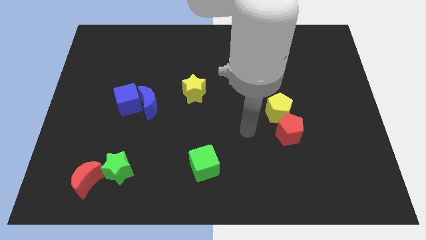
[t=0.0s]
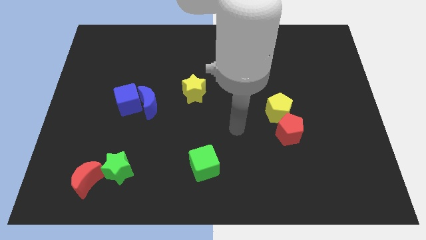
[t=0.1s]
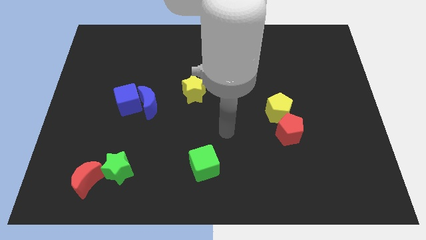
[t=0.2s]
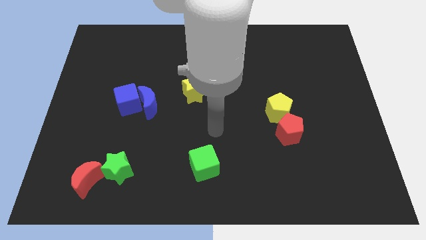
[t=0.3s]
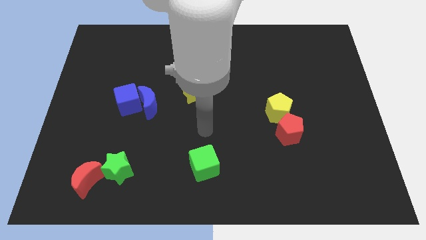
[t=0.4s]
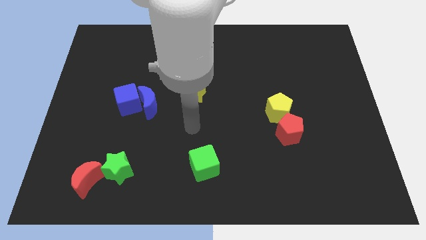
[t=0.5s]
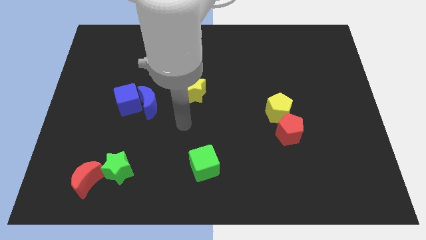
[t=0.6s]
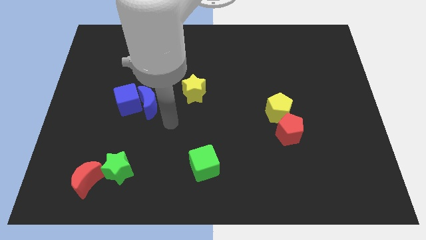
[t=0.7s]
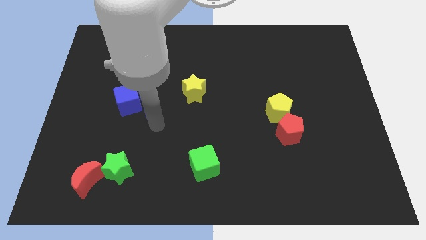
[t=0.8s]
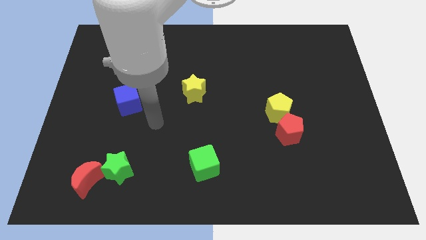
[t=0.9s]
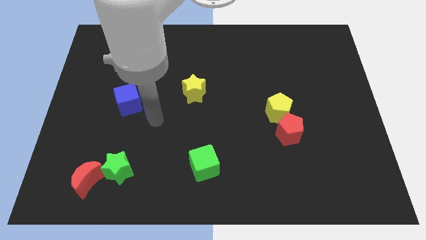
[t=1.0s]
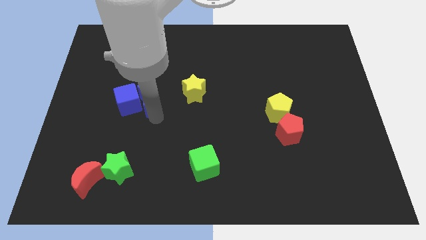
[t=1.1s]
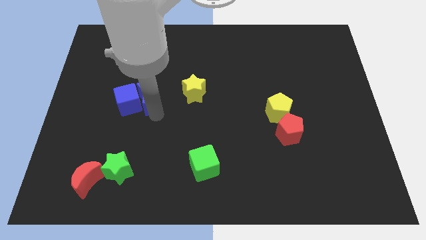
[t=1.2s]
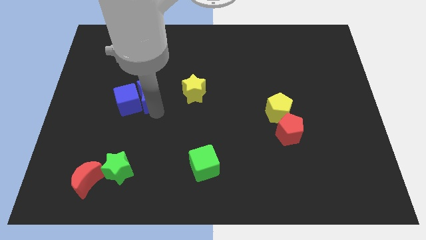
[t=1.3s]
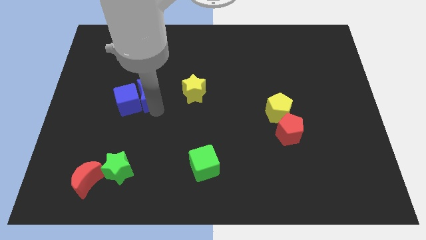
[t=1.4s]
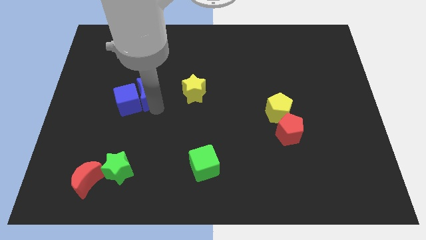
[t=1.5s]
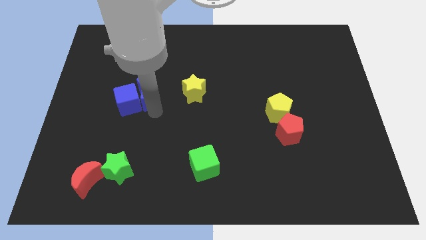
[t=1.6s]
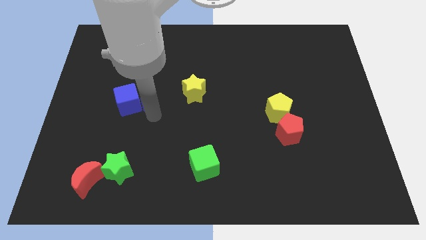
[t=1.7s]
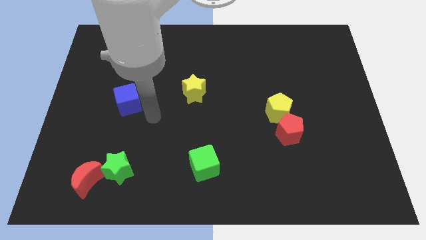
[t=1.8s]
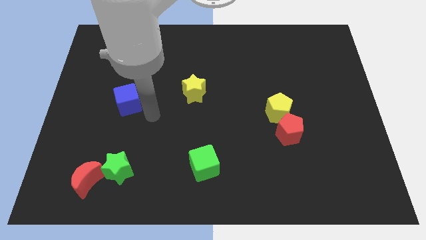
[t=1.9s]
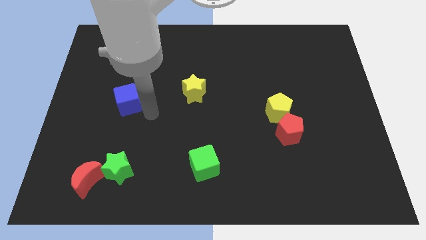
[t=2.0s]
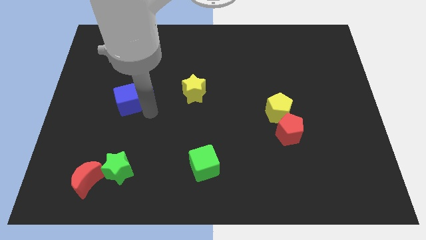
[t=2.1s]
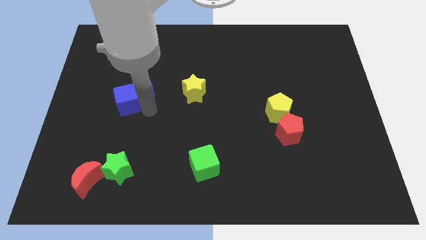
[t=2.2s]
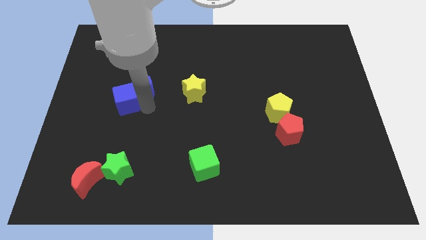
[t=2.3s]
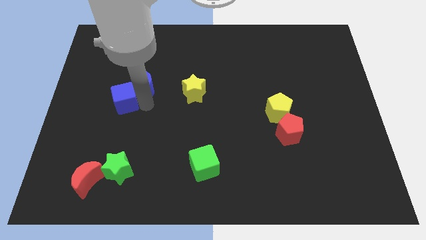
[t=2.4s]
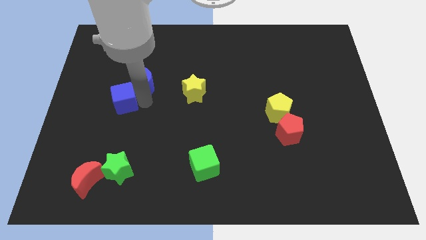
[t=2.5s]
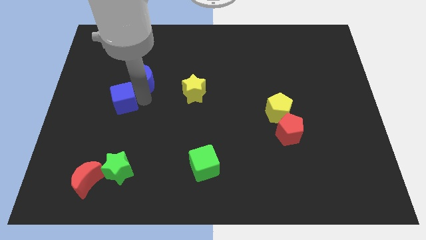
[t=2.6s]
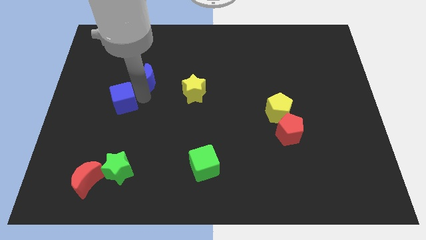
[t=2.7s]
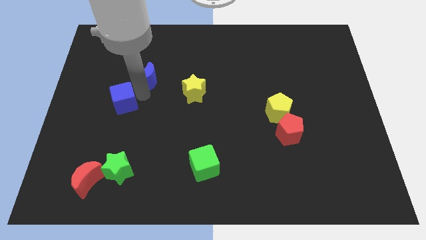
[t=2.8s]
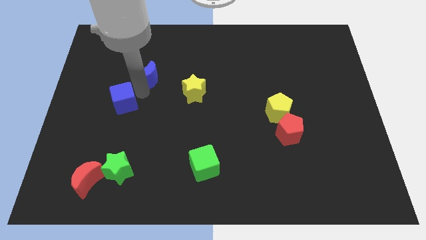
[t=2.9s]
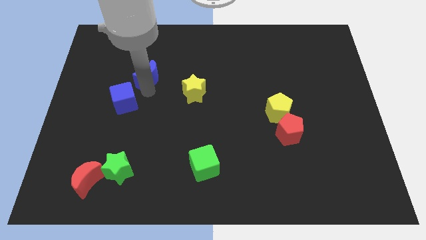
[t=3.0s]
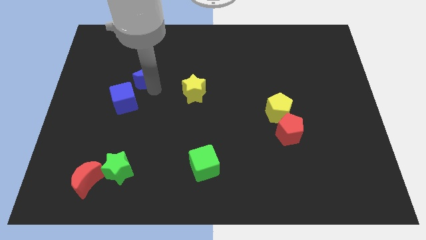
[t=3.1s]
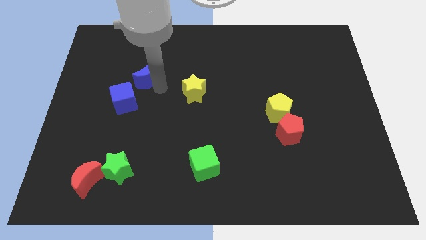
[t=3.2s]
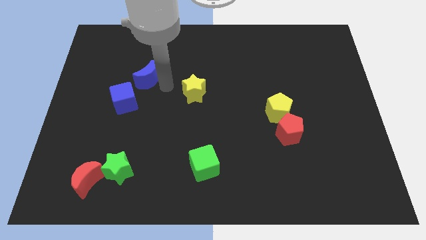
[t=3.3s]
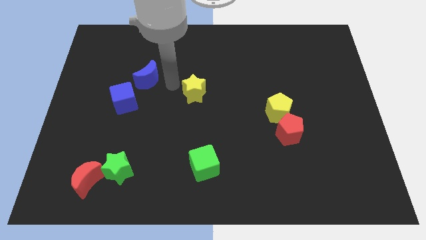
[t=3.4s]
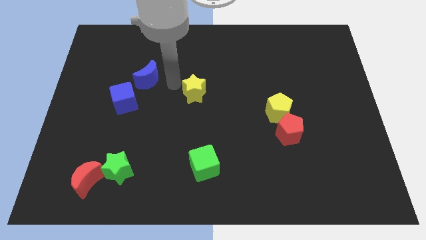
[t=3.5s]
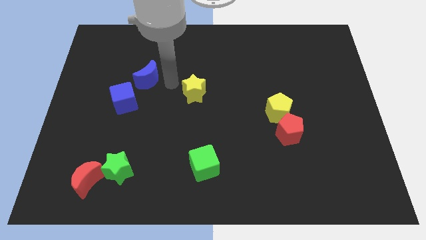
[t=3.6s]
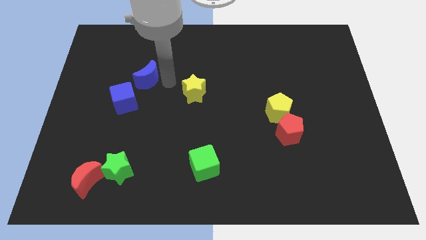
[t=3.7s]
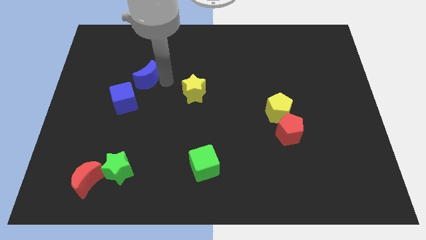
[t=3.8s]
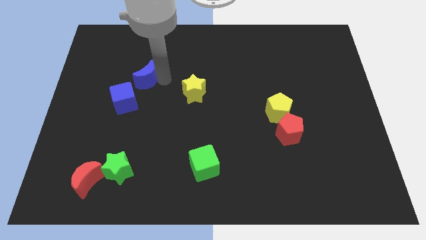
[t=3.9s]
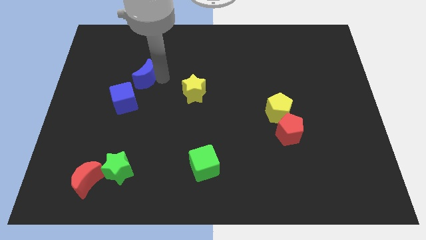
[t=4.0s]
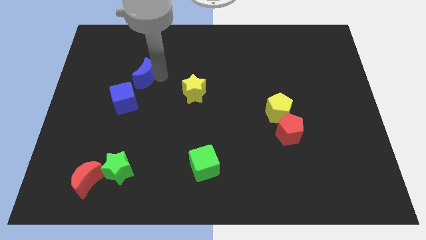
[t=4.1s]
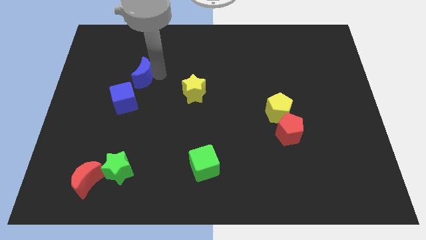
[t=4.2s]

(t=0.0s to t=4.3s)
slightly push the blue moon diagonally upwards and left

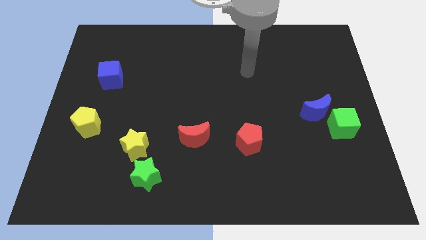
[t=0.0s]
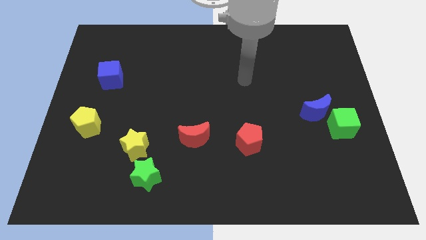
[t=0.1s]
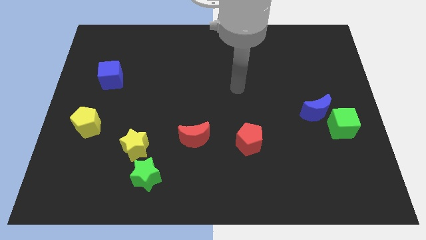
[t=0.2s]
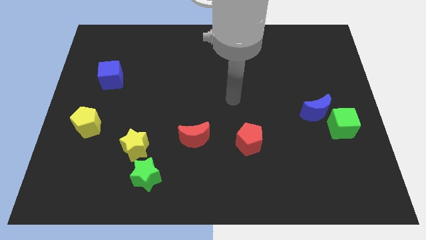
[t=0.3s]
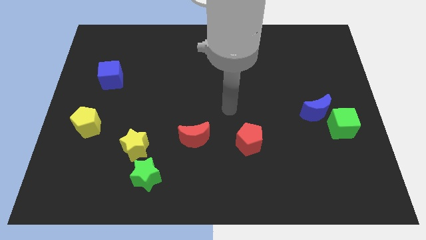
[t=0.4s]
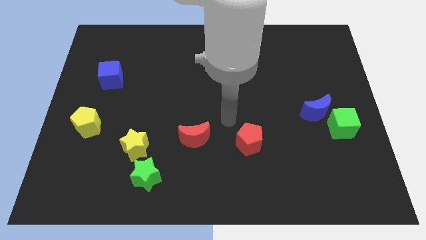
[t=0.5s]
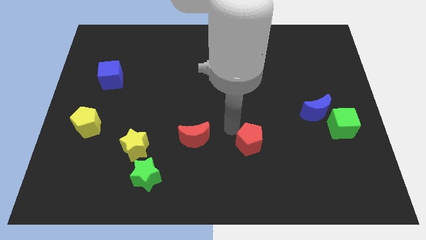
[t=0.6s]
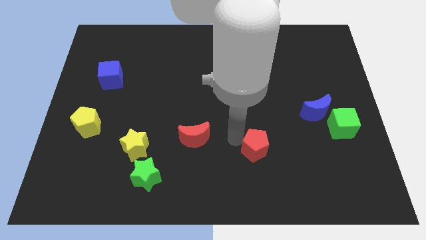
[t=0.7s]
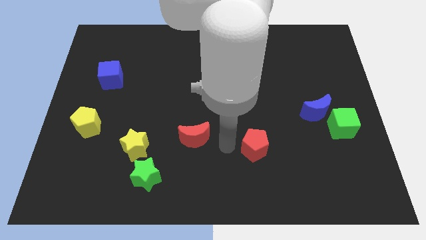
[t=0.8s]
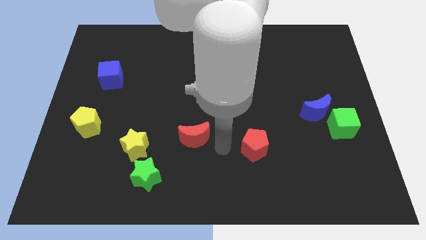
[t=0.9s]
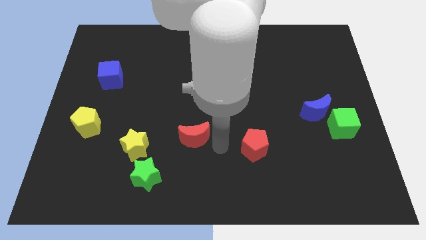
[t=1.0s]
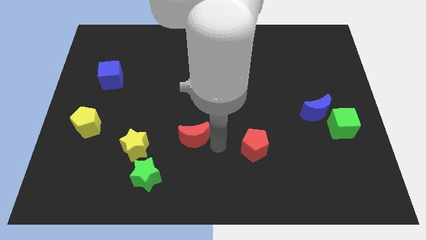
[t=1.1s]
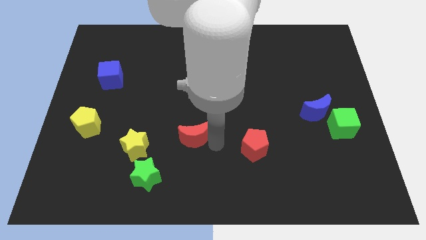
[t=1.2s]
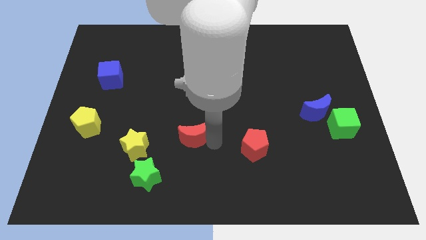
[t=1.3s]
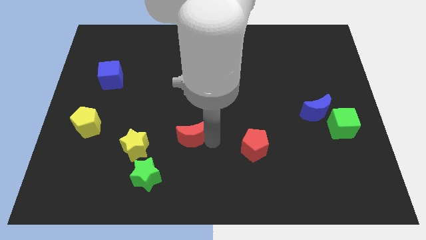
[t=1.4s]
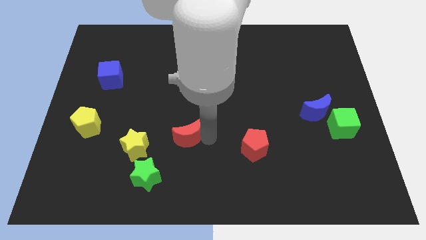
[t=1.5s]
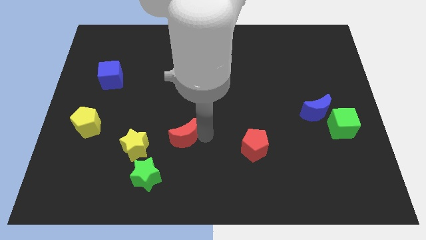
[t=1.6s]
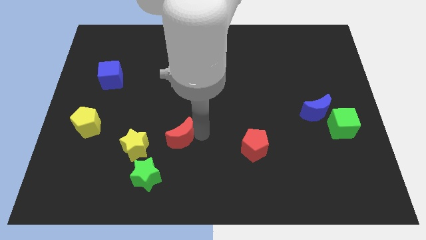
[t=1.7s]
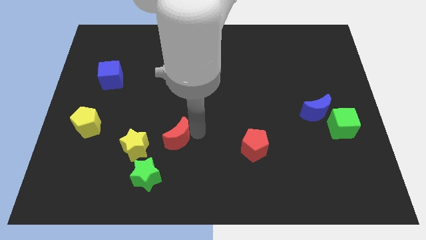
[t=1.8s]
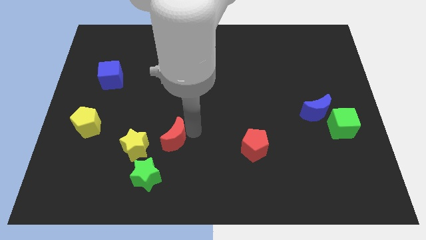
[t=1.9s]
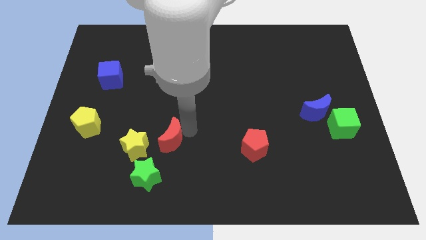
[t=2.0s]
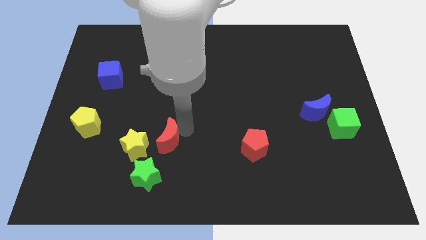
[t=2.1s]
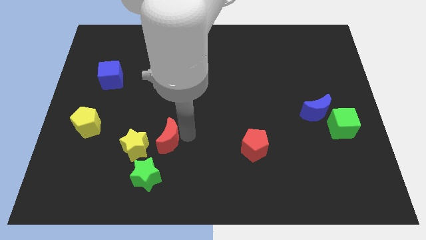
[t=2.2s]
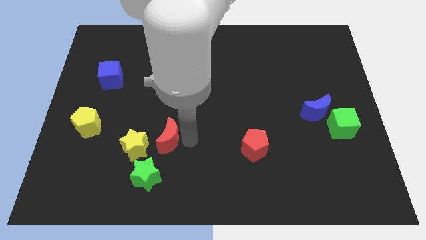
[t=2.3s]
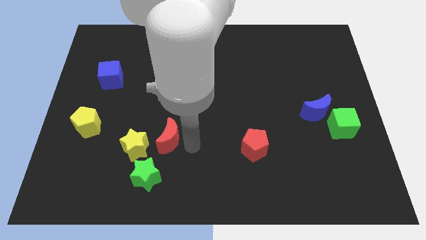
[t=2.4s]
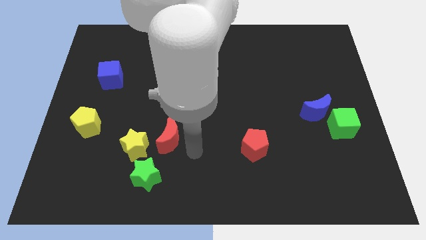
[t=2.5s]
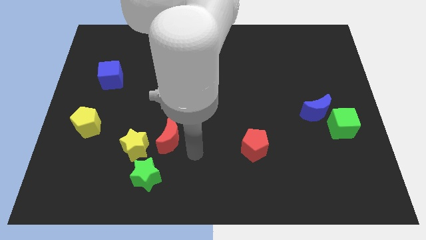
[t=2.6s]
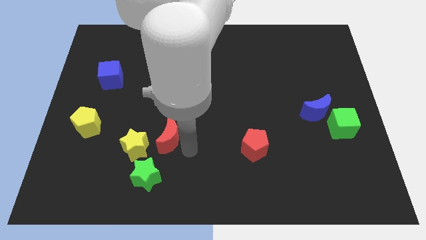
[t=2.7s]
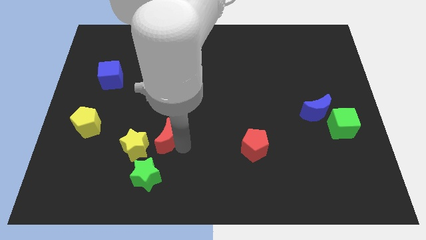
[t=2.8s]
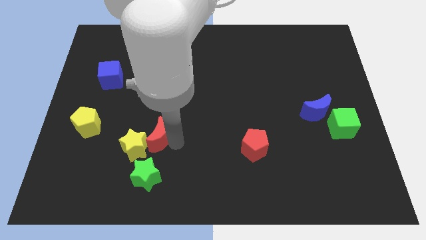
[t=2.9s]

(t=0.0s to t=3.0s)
move the red moon to the left a bit

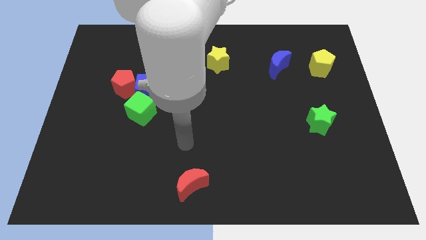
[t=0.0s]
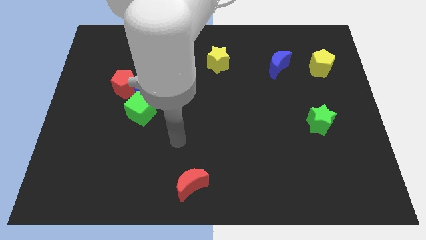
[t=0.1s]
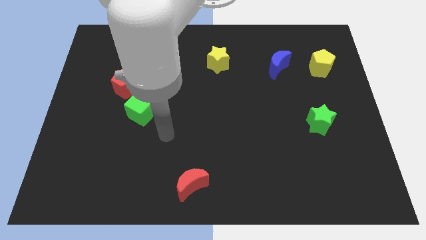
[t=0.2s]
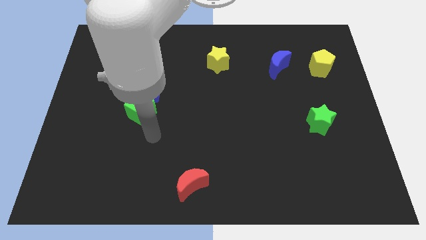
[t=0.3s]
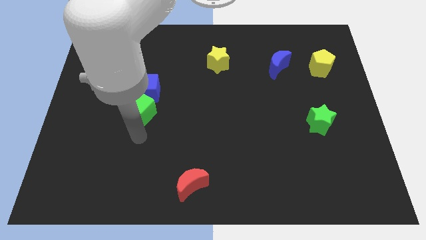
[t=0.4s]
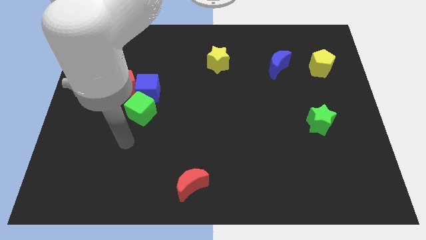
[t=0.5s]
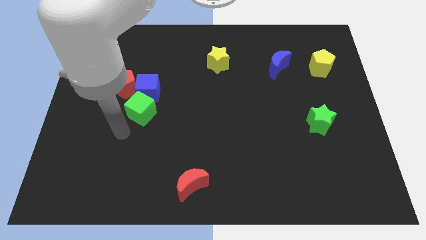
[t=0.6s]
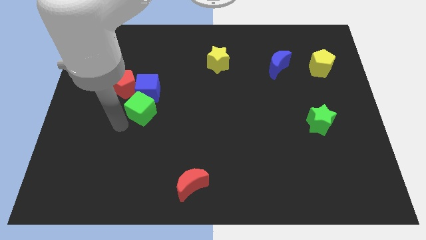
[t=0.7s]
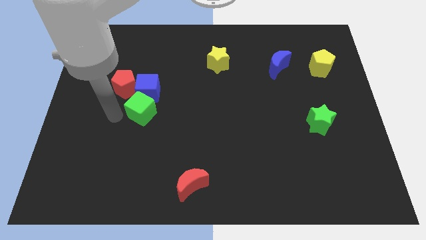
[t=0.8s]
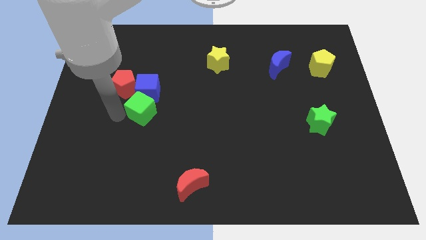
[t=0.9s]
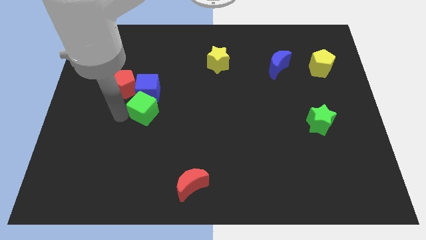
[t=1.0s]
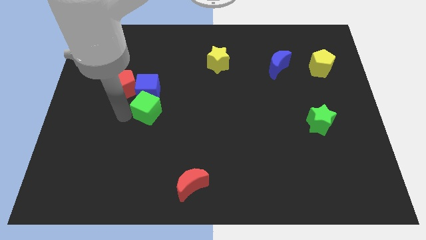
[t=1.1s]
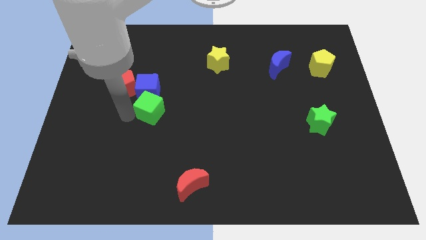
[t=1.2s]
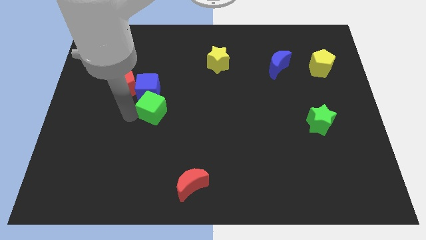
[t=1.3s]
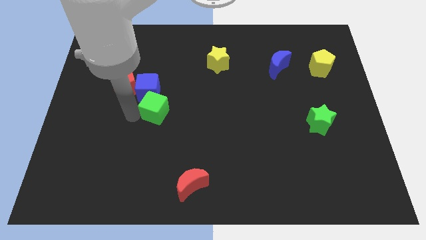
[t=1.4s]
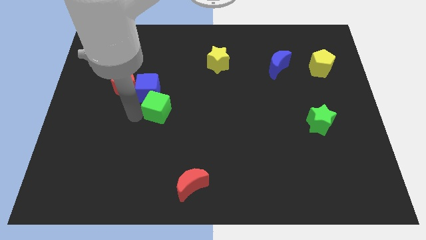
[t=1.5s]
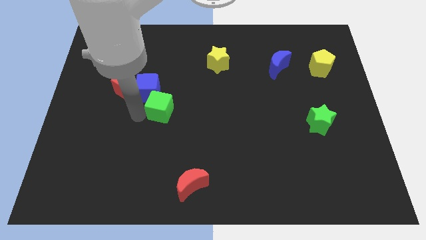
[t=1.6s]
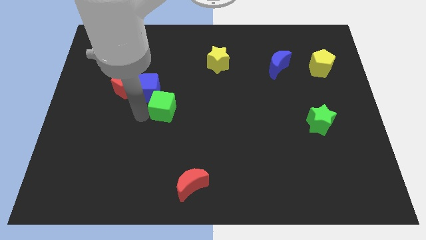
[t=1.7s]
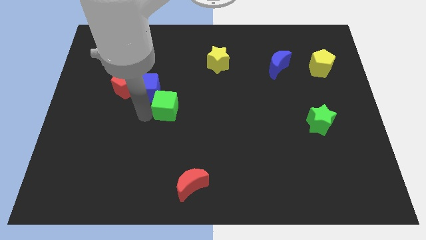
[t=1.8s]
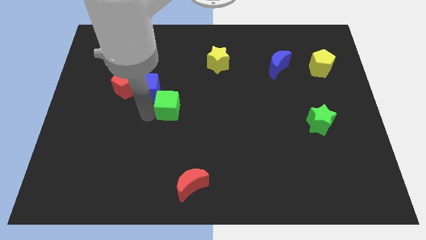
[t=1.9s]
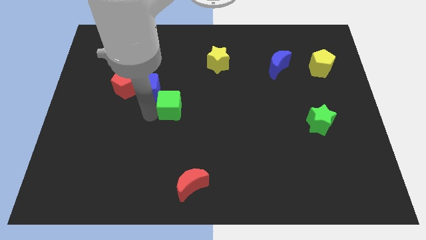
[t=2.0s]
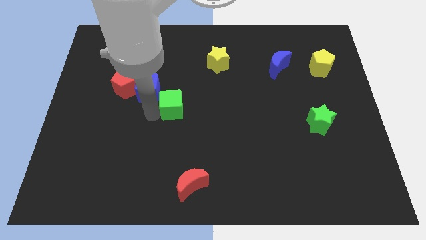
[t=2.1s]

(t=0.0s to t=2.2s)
slightly slide the green cube to the right
